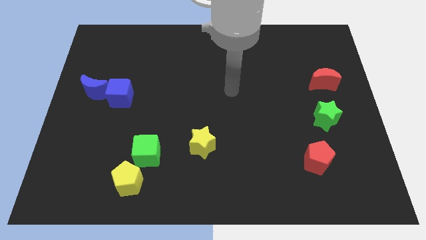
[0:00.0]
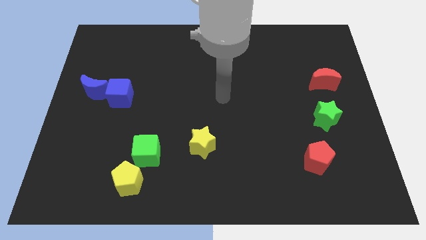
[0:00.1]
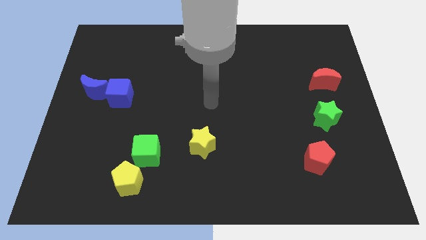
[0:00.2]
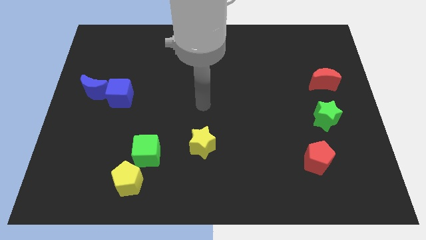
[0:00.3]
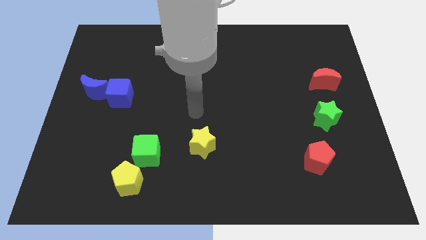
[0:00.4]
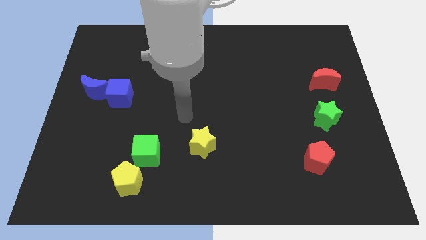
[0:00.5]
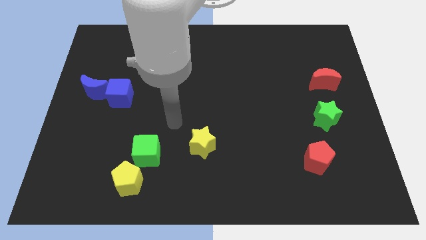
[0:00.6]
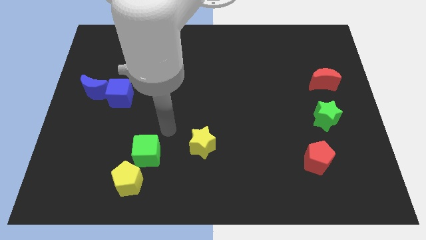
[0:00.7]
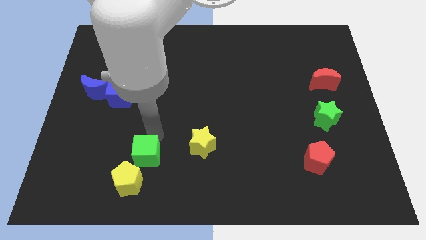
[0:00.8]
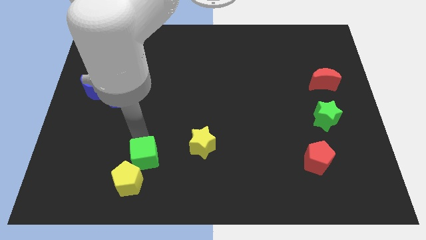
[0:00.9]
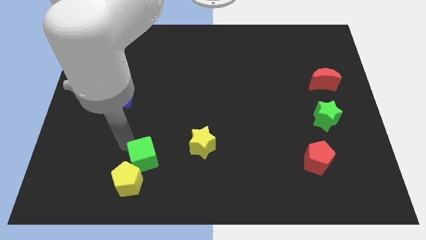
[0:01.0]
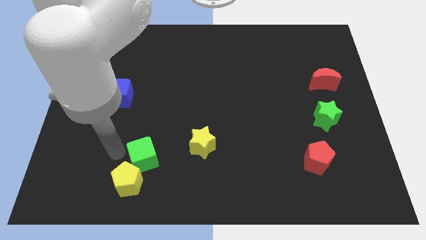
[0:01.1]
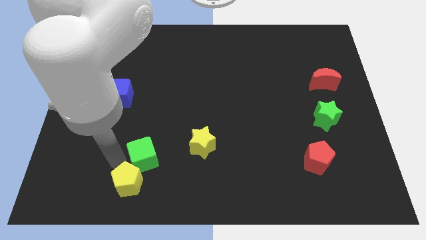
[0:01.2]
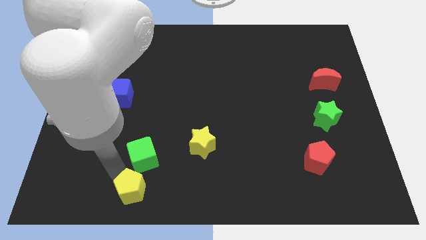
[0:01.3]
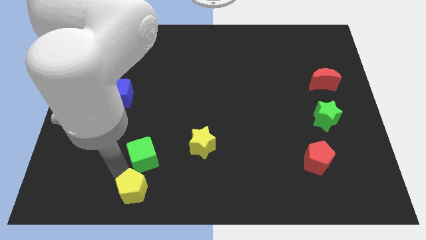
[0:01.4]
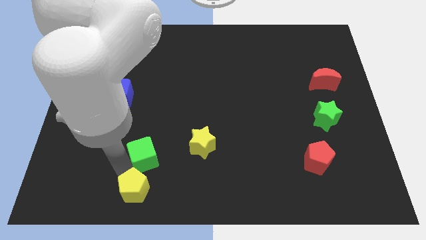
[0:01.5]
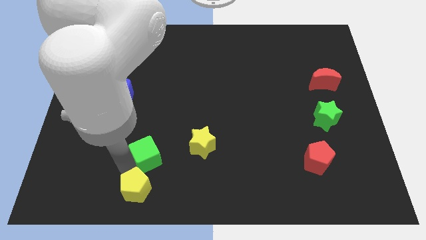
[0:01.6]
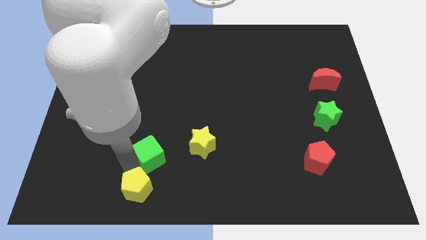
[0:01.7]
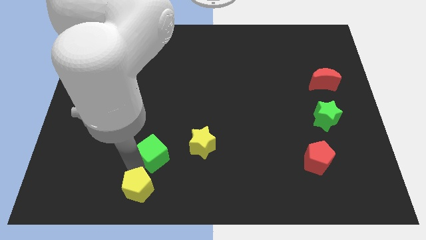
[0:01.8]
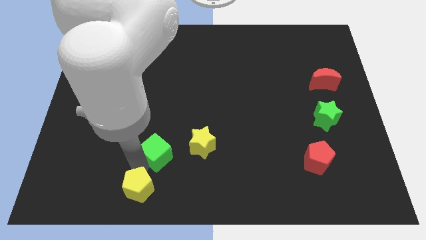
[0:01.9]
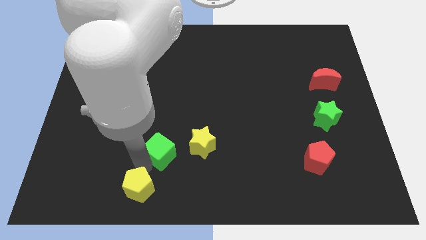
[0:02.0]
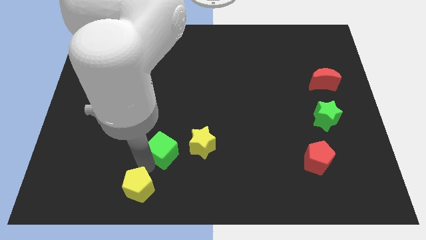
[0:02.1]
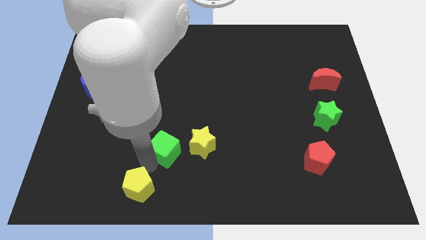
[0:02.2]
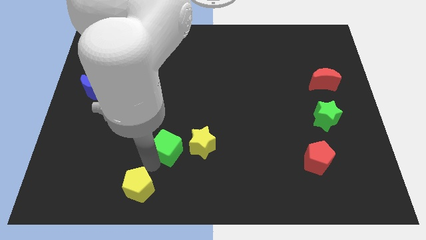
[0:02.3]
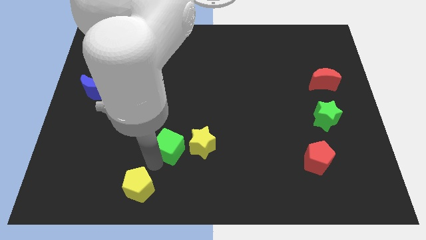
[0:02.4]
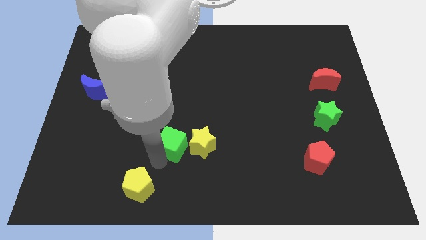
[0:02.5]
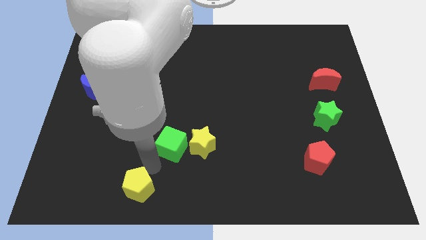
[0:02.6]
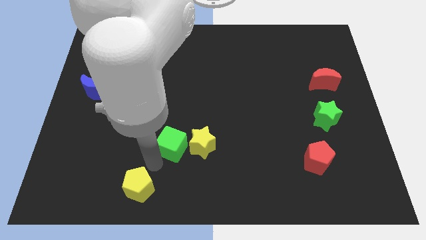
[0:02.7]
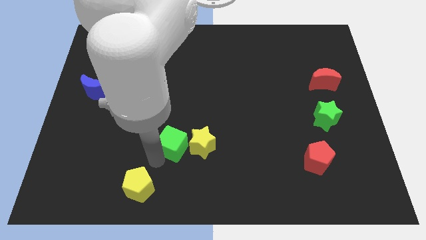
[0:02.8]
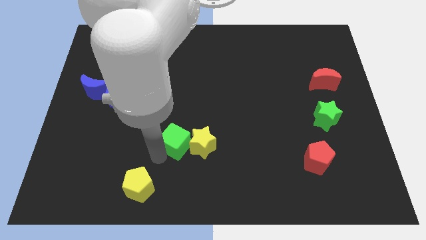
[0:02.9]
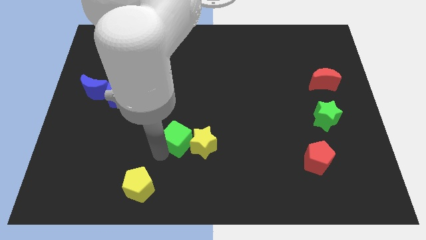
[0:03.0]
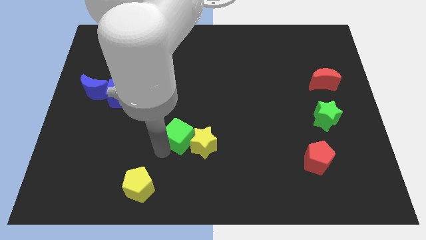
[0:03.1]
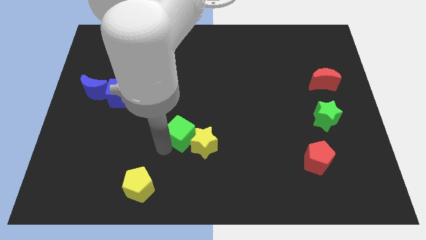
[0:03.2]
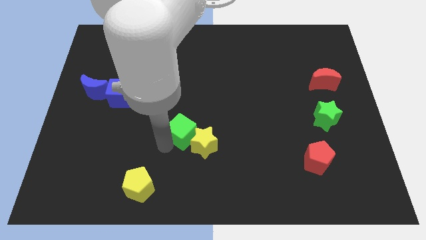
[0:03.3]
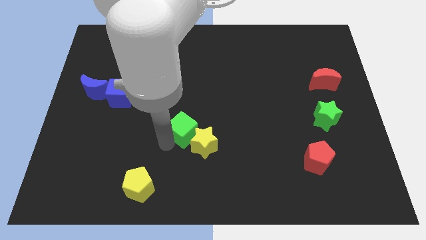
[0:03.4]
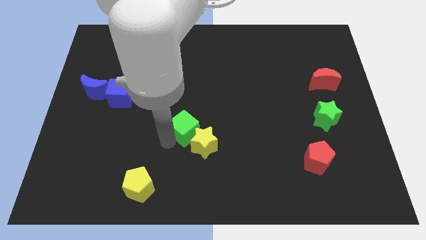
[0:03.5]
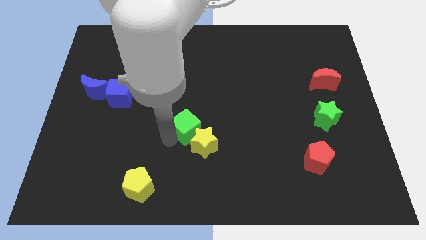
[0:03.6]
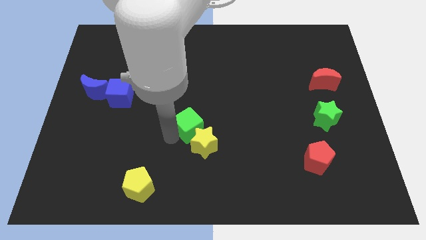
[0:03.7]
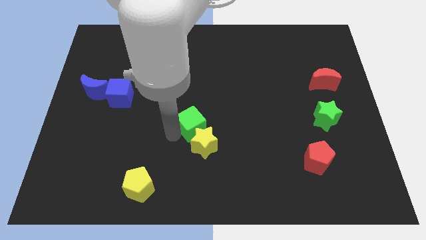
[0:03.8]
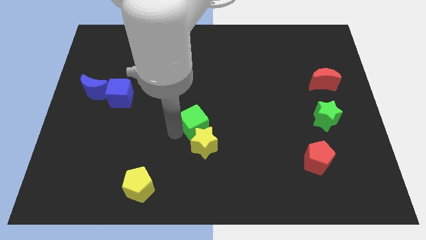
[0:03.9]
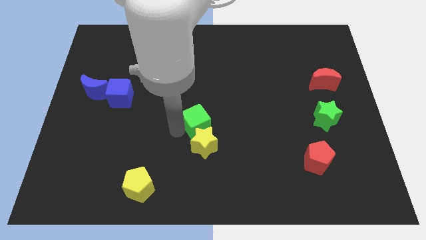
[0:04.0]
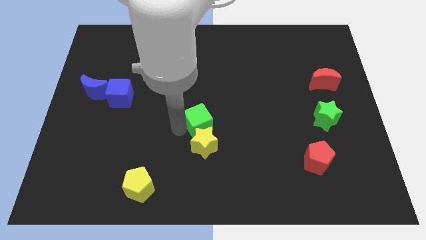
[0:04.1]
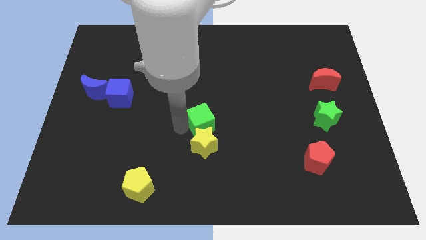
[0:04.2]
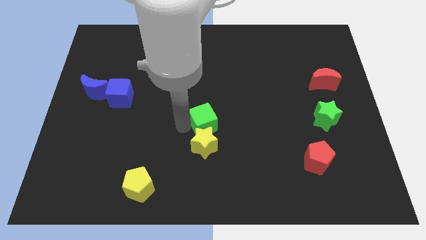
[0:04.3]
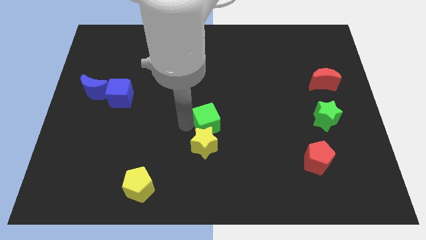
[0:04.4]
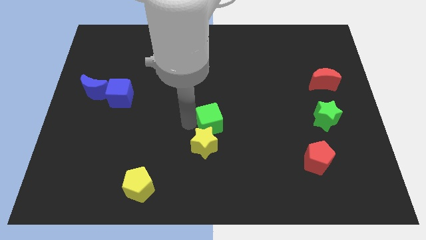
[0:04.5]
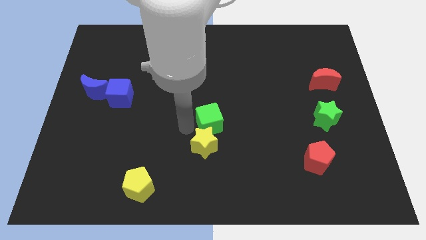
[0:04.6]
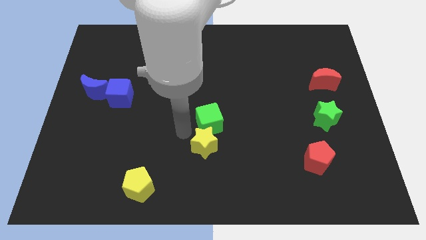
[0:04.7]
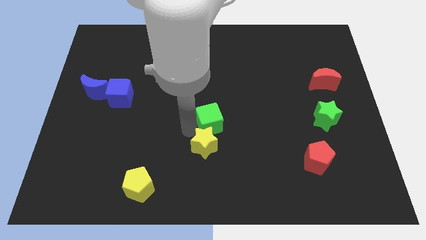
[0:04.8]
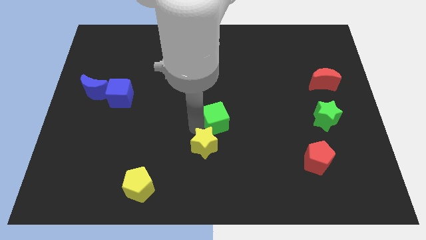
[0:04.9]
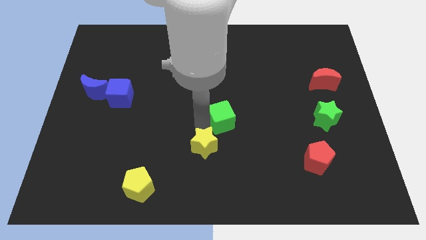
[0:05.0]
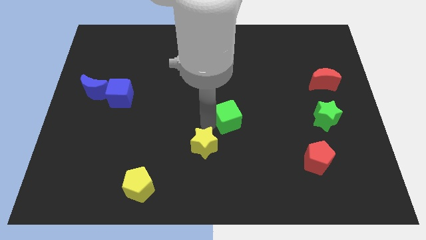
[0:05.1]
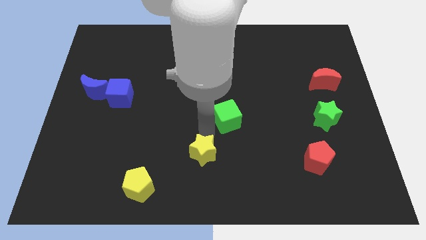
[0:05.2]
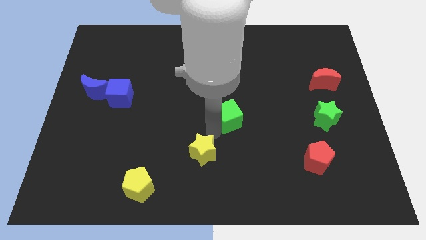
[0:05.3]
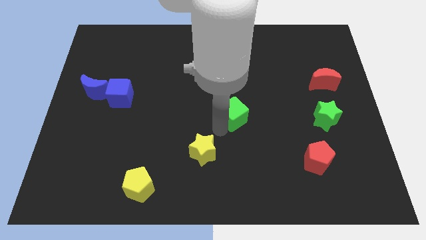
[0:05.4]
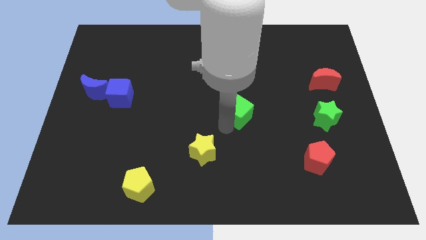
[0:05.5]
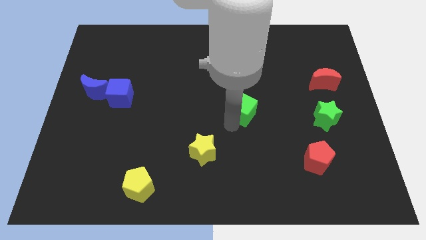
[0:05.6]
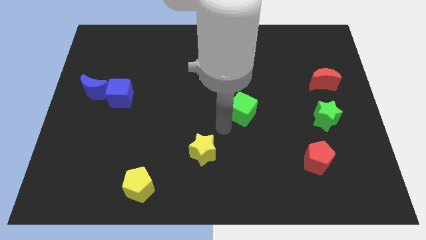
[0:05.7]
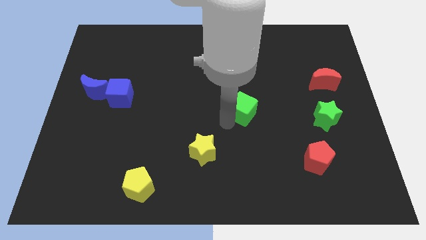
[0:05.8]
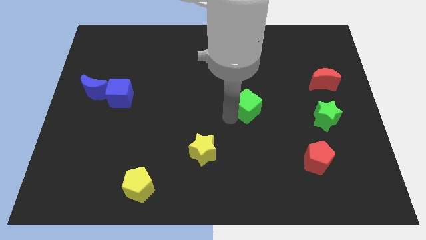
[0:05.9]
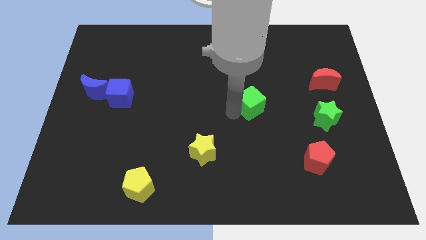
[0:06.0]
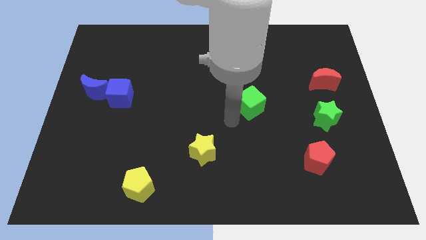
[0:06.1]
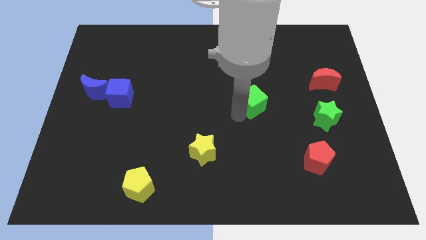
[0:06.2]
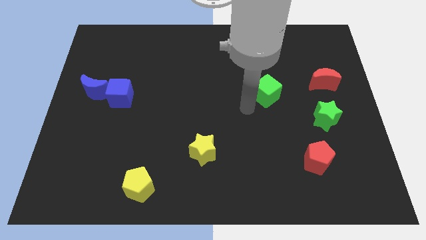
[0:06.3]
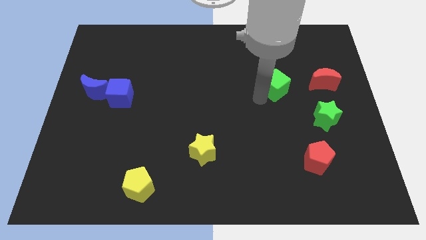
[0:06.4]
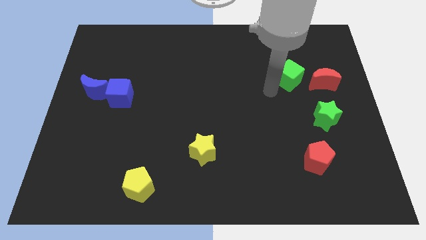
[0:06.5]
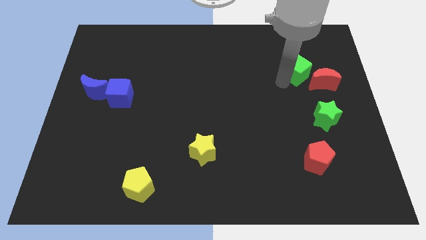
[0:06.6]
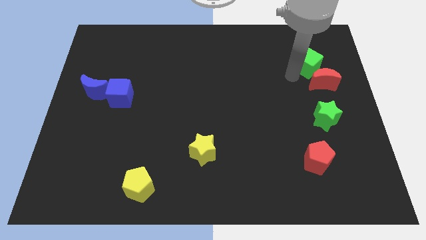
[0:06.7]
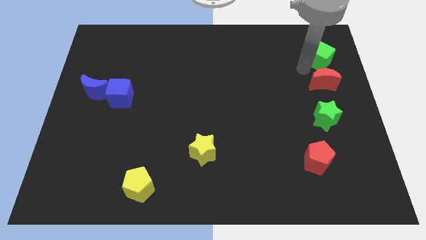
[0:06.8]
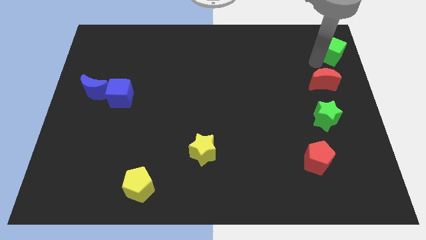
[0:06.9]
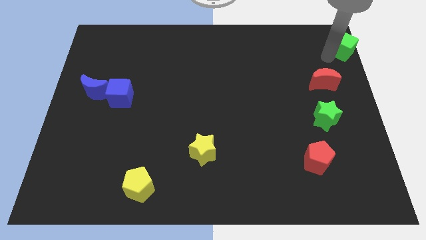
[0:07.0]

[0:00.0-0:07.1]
move the green cube to the top right

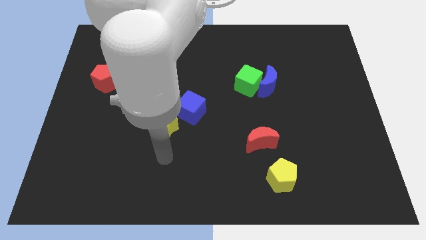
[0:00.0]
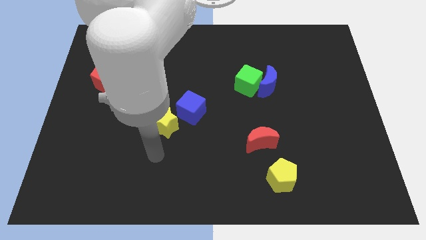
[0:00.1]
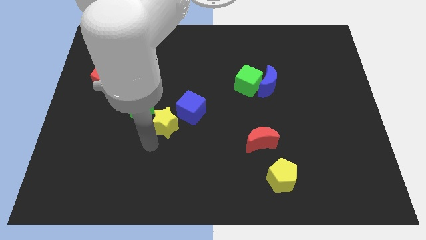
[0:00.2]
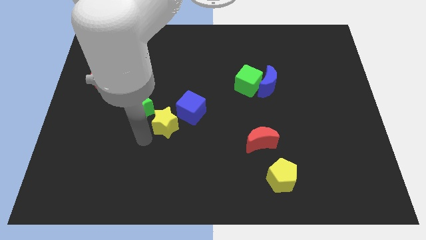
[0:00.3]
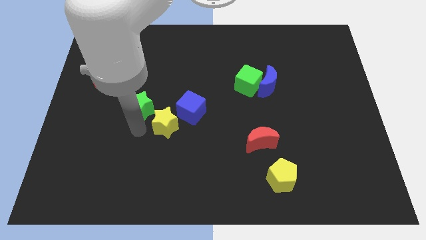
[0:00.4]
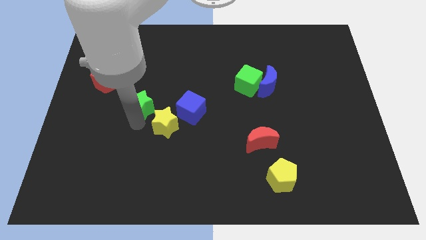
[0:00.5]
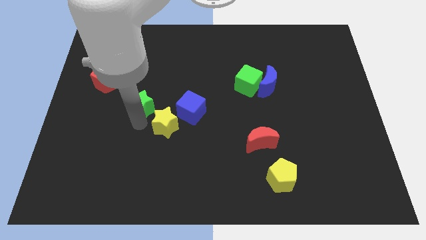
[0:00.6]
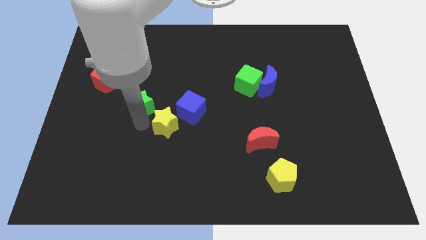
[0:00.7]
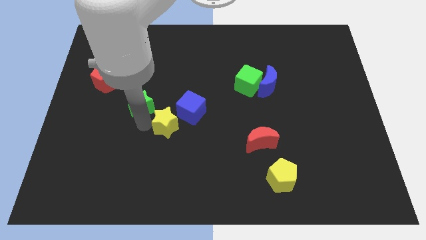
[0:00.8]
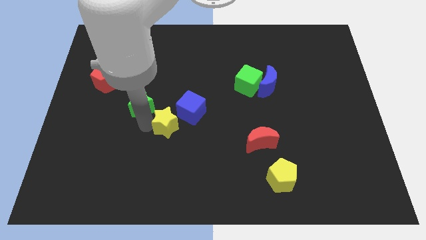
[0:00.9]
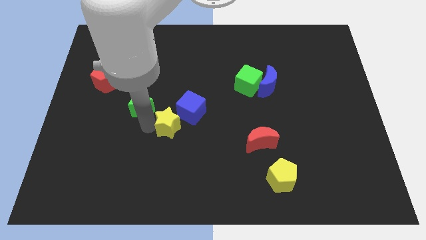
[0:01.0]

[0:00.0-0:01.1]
push the yellow star to the center
